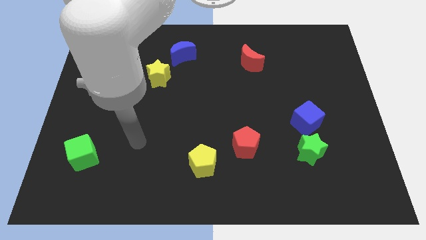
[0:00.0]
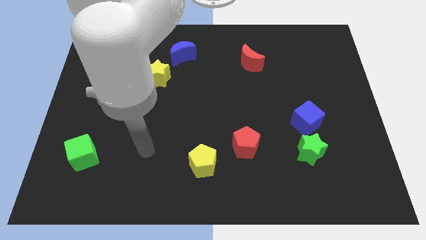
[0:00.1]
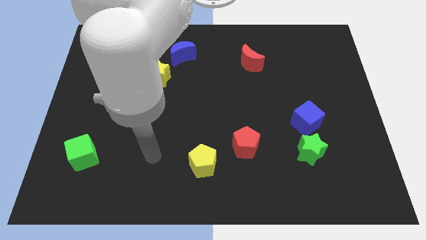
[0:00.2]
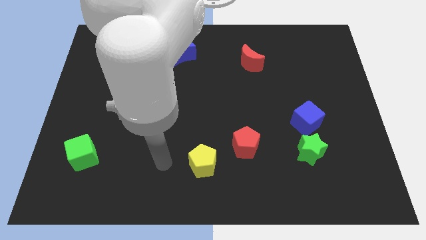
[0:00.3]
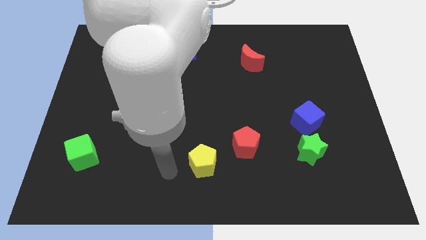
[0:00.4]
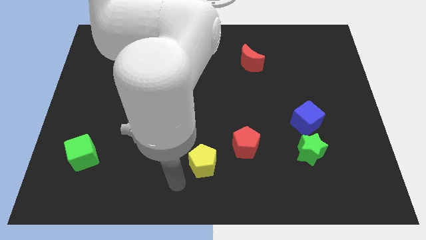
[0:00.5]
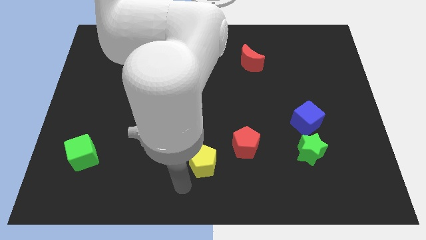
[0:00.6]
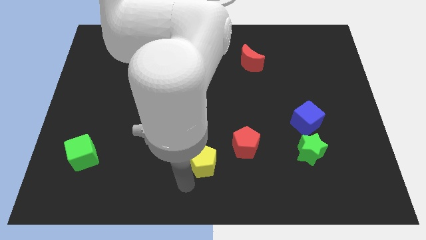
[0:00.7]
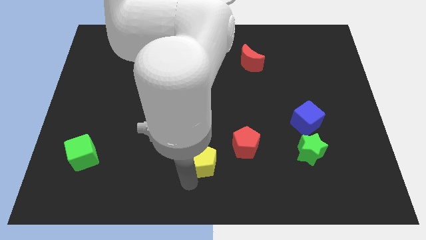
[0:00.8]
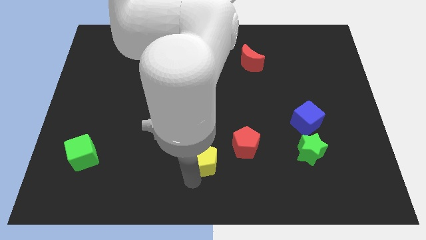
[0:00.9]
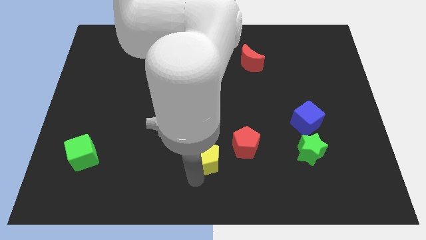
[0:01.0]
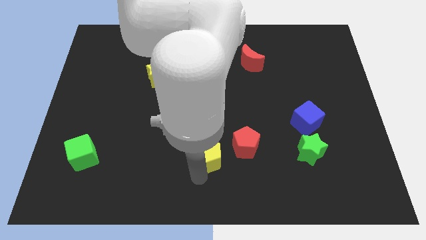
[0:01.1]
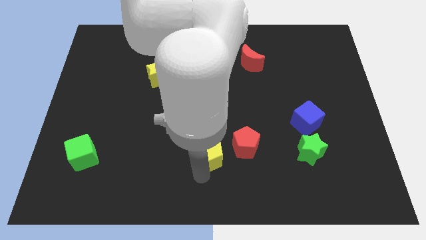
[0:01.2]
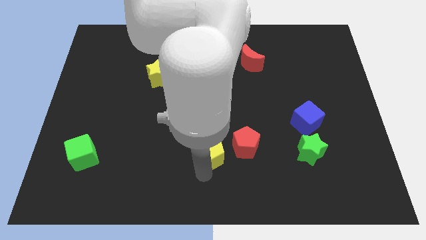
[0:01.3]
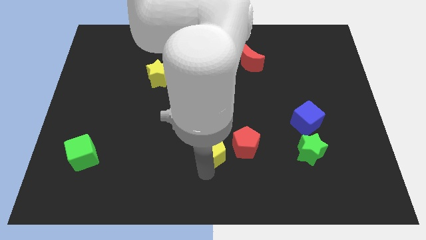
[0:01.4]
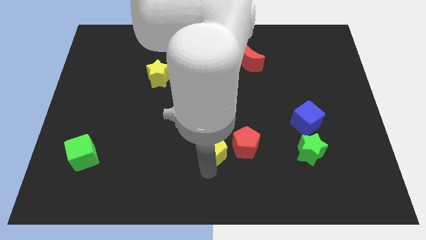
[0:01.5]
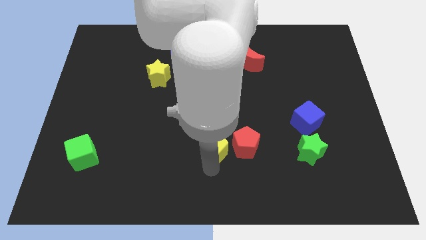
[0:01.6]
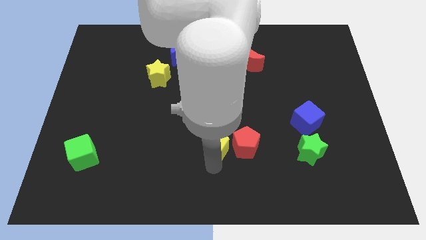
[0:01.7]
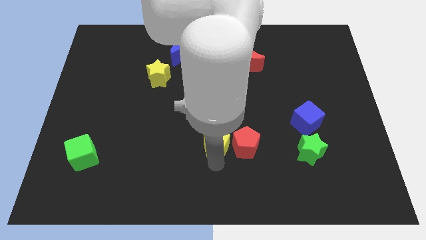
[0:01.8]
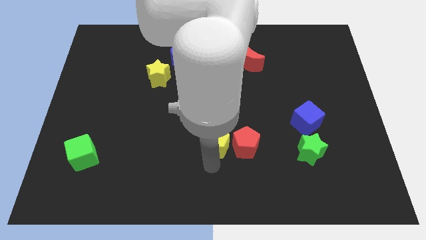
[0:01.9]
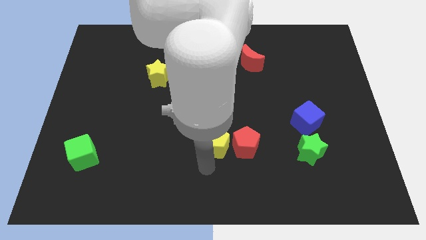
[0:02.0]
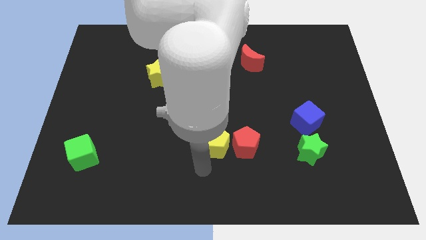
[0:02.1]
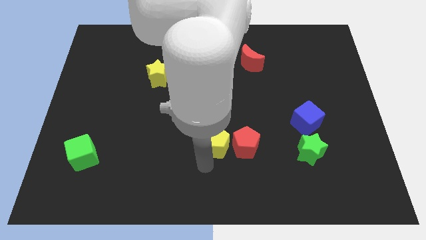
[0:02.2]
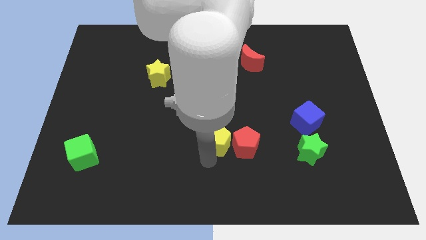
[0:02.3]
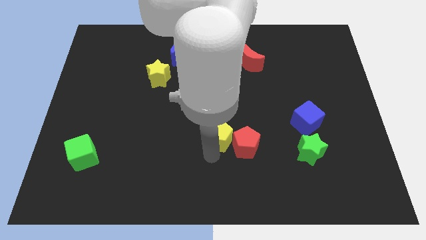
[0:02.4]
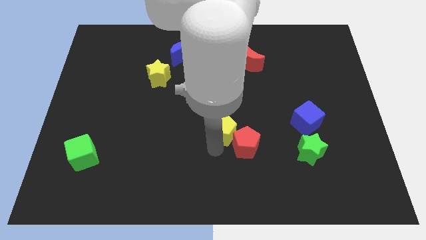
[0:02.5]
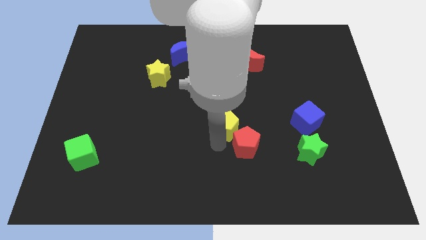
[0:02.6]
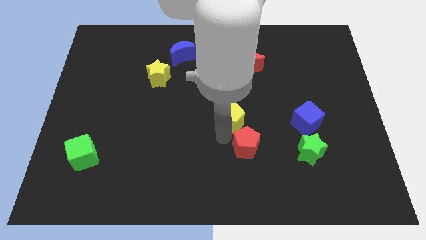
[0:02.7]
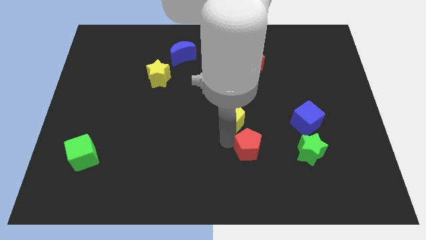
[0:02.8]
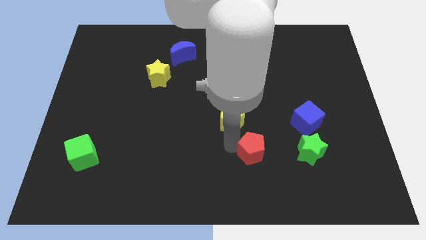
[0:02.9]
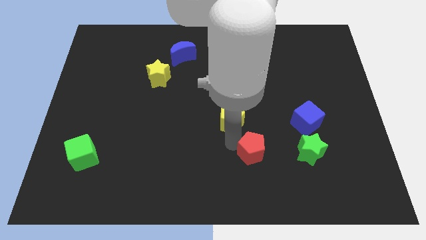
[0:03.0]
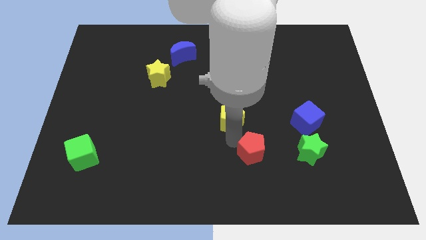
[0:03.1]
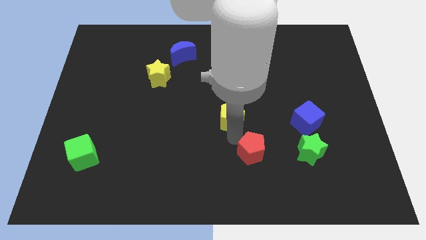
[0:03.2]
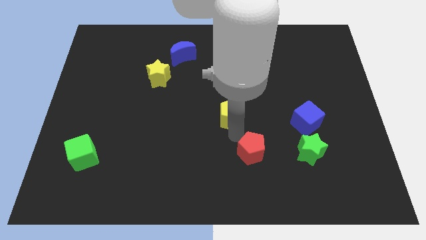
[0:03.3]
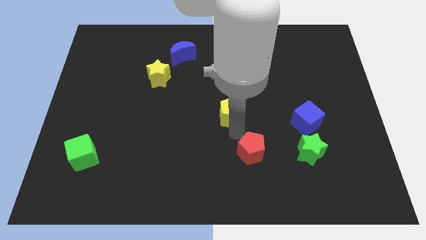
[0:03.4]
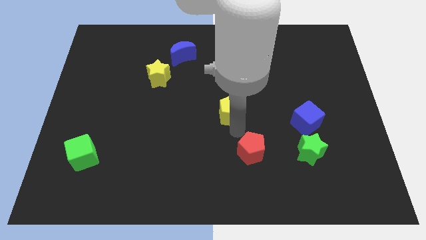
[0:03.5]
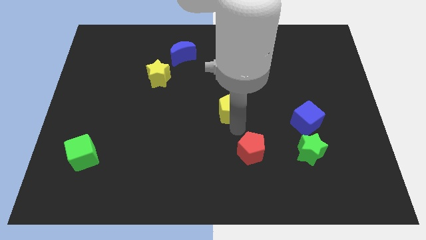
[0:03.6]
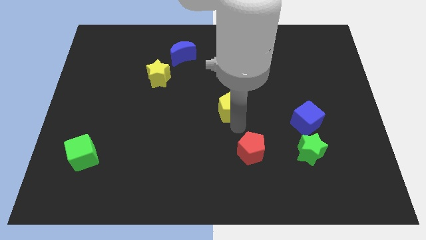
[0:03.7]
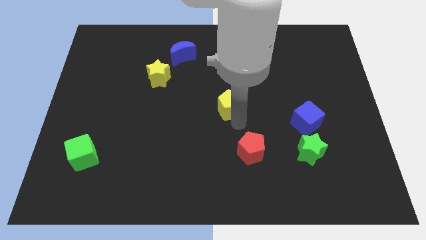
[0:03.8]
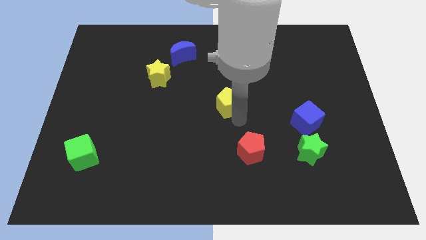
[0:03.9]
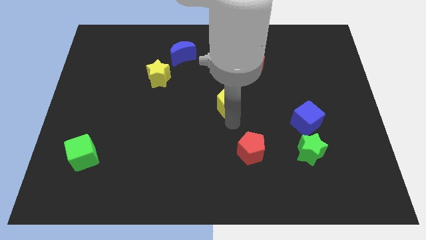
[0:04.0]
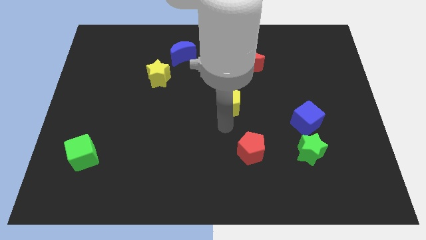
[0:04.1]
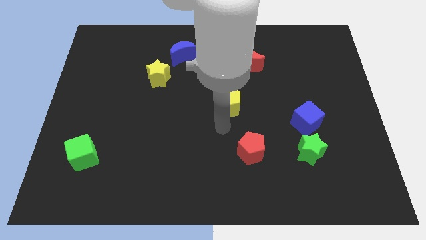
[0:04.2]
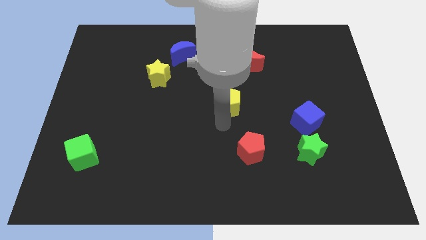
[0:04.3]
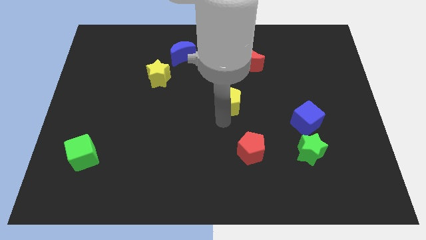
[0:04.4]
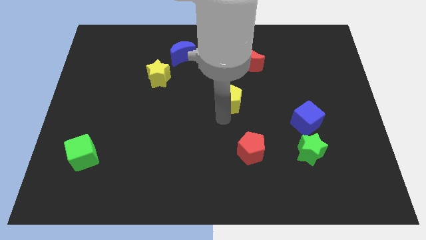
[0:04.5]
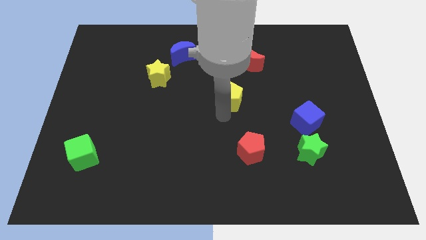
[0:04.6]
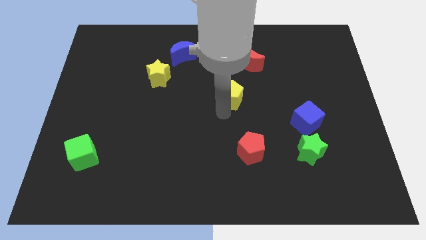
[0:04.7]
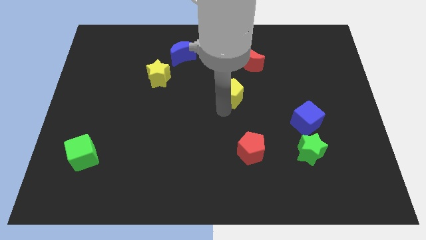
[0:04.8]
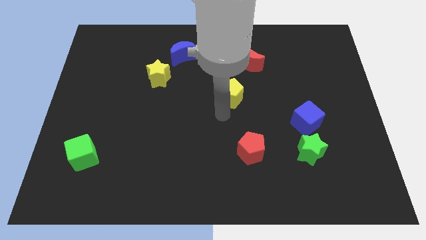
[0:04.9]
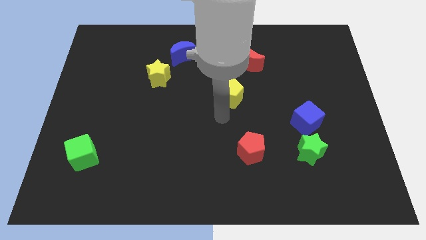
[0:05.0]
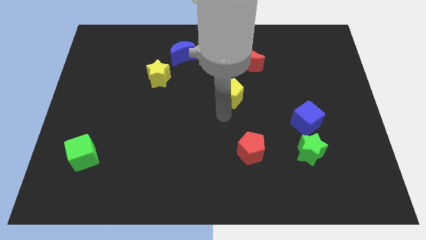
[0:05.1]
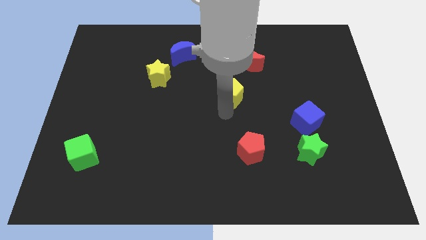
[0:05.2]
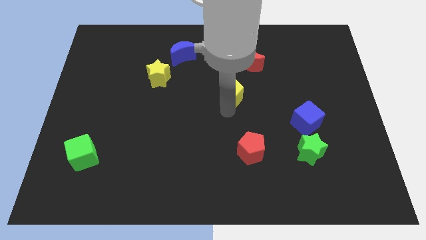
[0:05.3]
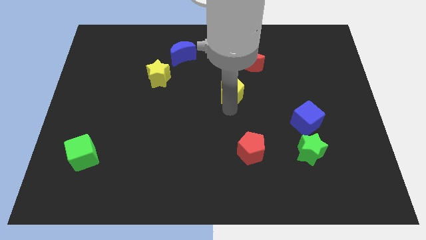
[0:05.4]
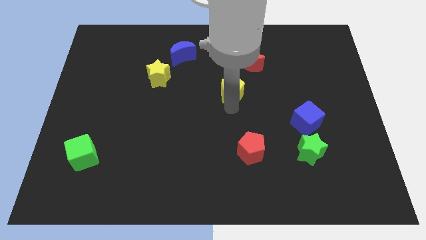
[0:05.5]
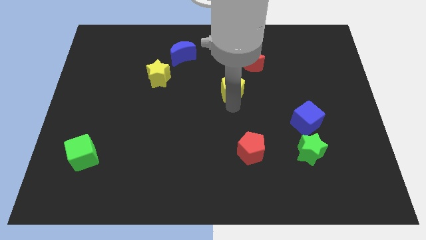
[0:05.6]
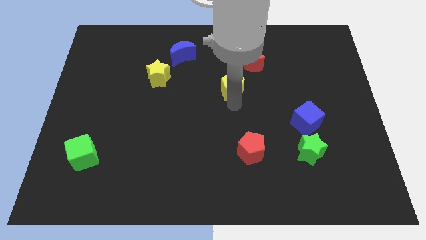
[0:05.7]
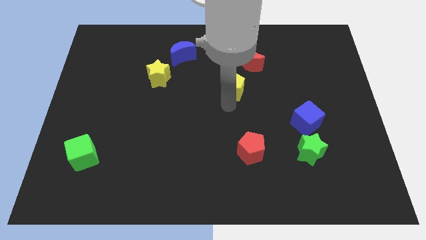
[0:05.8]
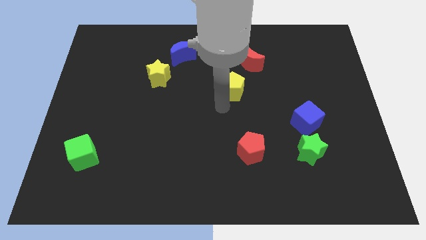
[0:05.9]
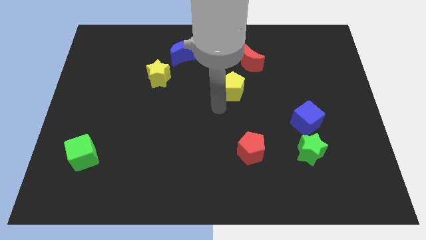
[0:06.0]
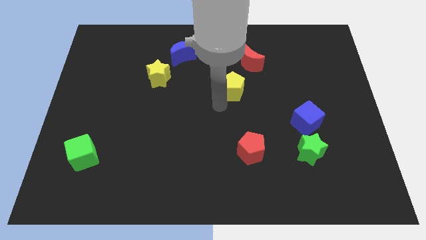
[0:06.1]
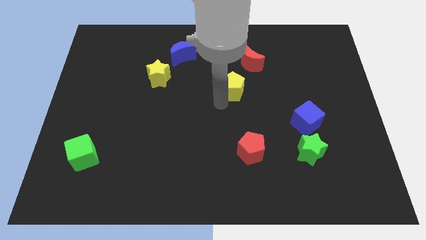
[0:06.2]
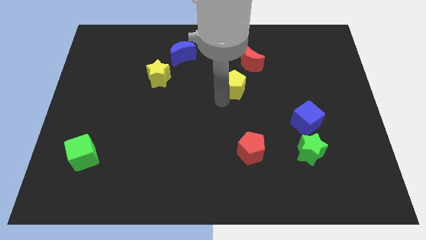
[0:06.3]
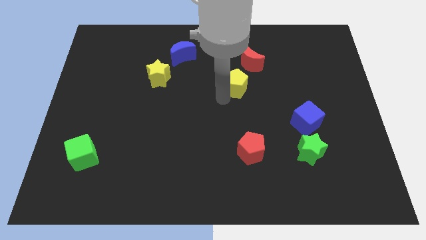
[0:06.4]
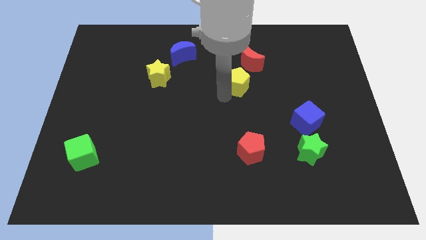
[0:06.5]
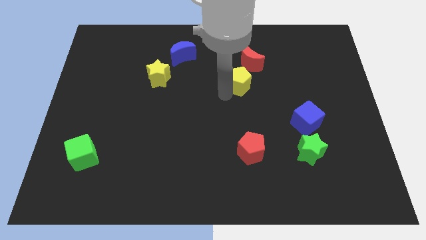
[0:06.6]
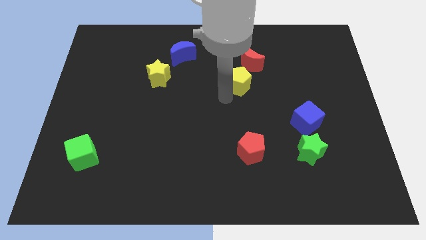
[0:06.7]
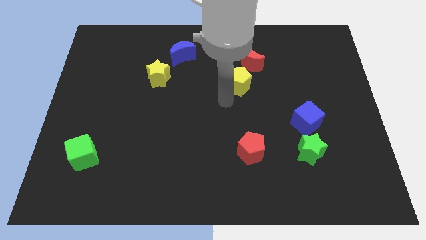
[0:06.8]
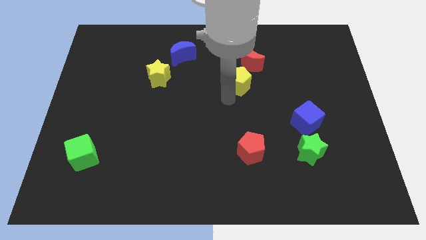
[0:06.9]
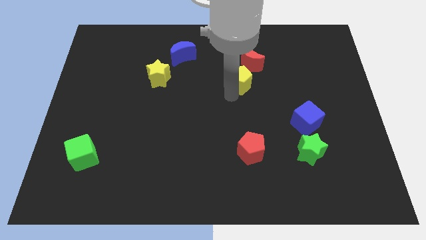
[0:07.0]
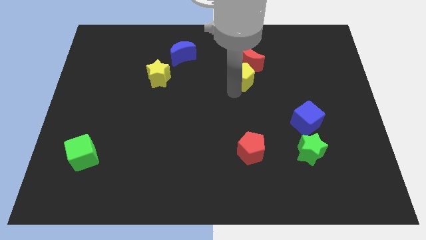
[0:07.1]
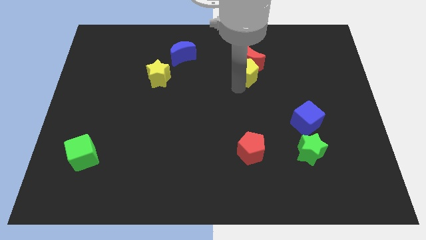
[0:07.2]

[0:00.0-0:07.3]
move the yellow pentagon close to the red moon
